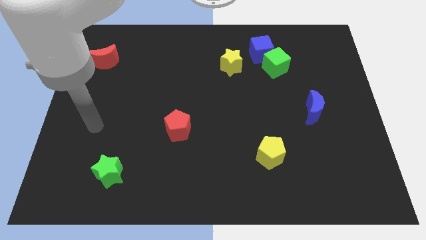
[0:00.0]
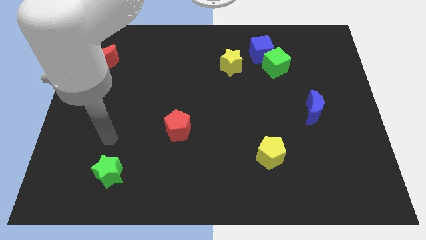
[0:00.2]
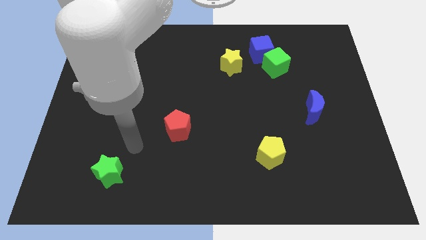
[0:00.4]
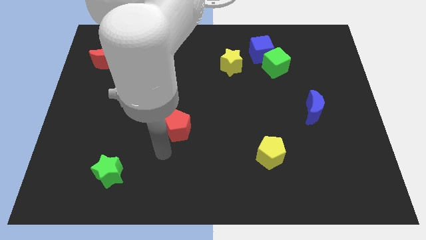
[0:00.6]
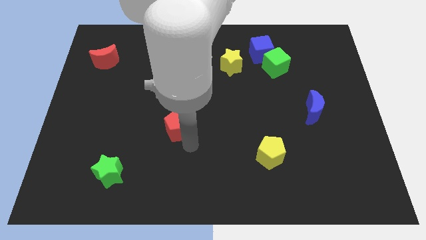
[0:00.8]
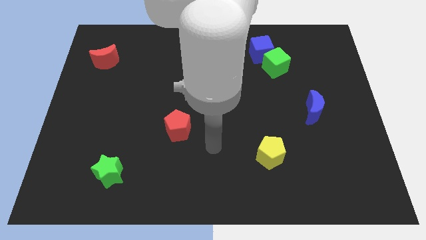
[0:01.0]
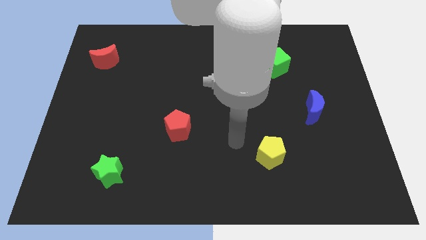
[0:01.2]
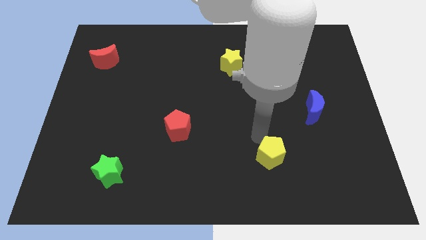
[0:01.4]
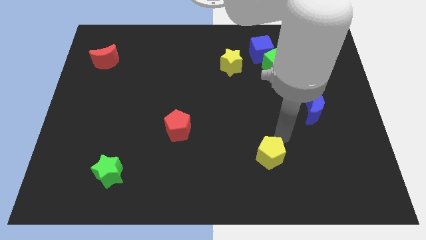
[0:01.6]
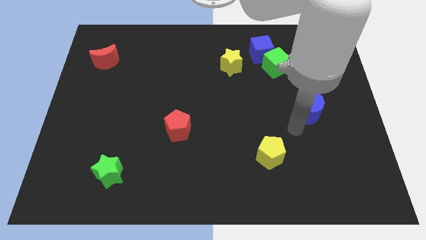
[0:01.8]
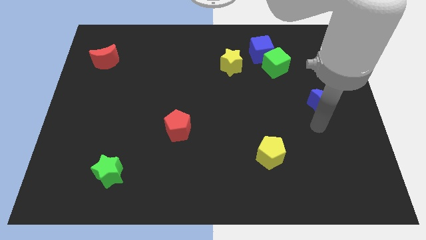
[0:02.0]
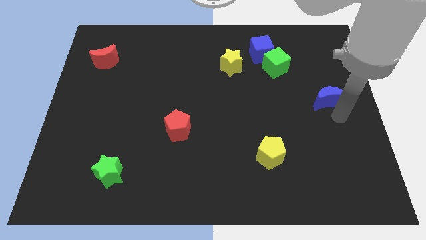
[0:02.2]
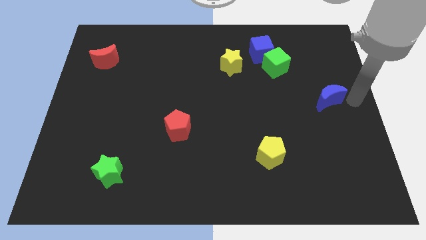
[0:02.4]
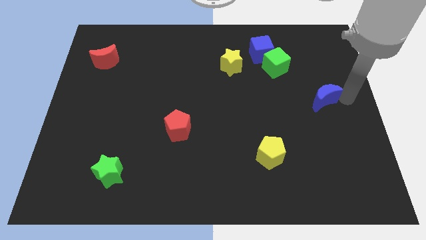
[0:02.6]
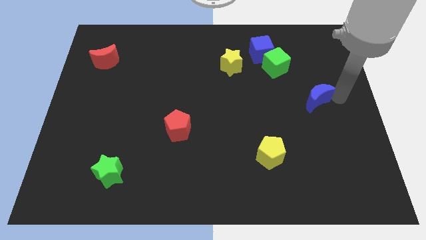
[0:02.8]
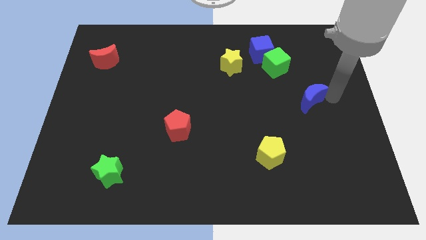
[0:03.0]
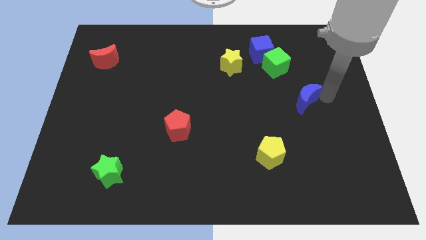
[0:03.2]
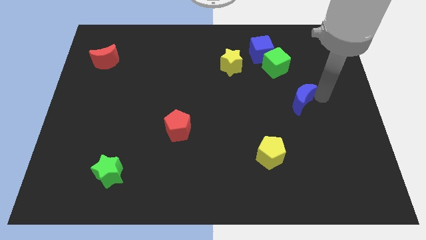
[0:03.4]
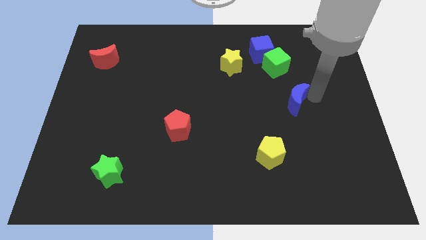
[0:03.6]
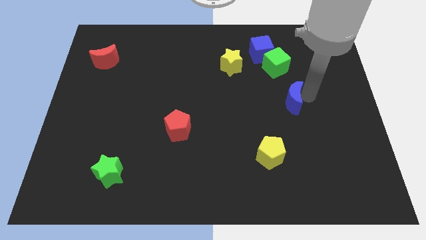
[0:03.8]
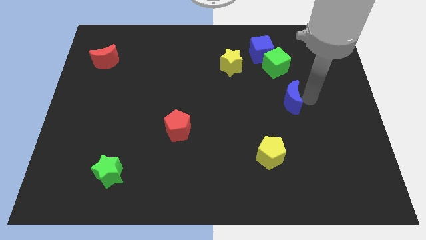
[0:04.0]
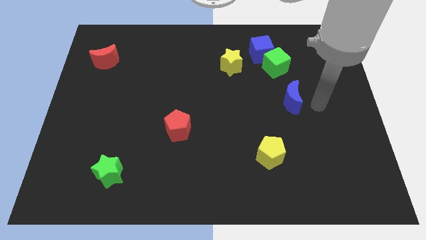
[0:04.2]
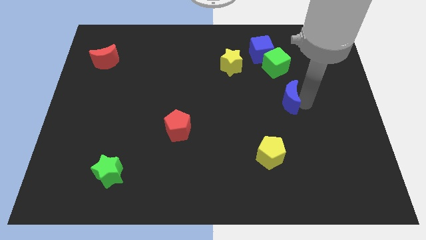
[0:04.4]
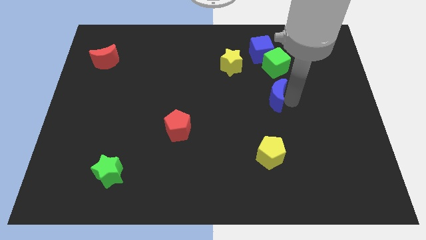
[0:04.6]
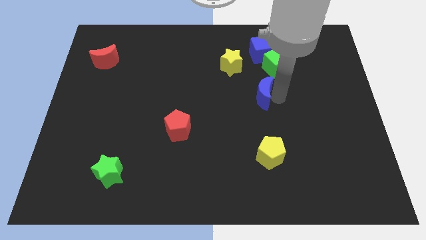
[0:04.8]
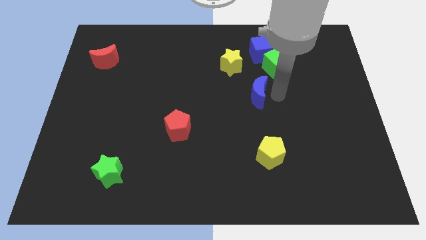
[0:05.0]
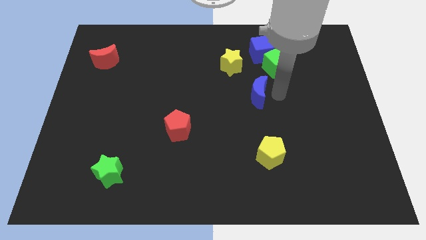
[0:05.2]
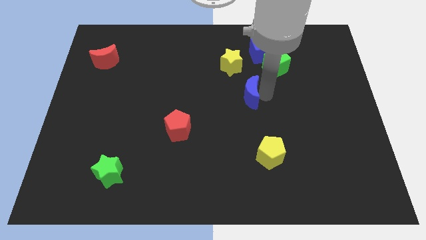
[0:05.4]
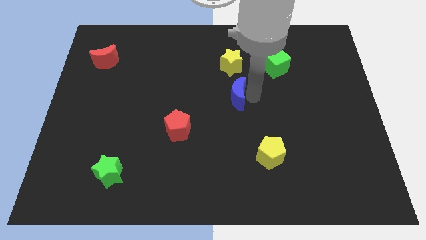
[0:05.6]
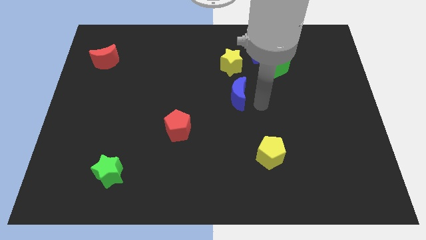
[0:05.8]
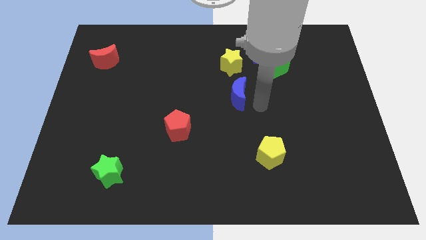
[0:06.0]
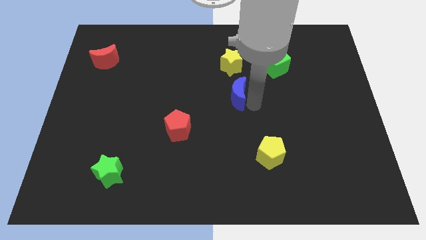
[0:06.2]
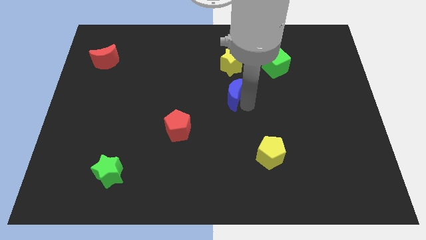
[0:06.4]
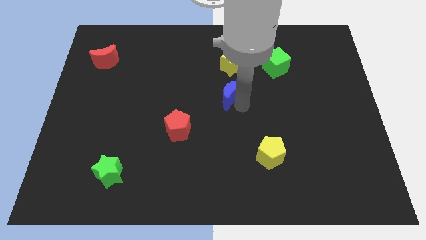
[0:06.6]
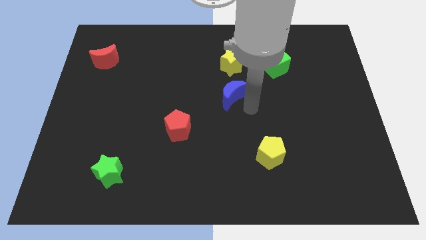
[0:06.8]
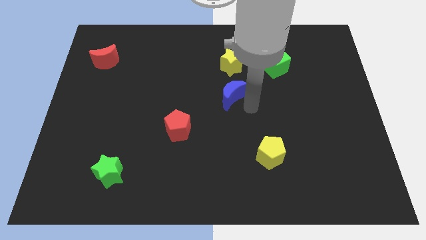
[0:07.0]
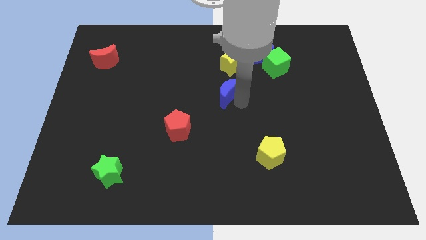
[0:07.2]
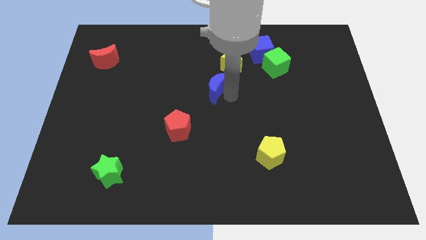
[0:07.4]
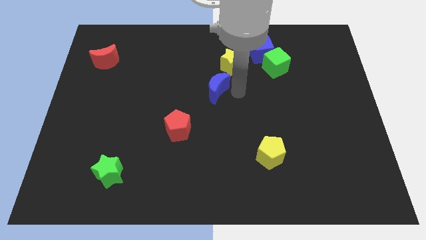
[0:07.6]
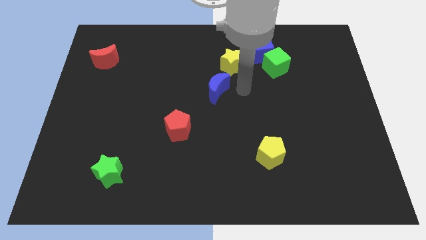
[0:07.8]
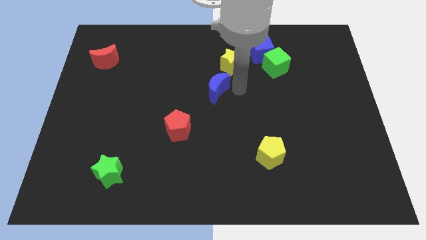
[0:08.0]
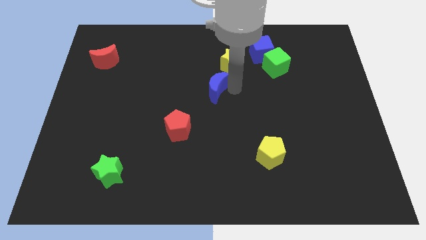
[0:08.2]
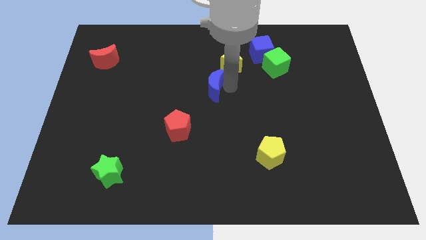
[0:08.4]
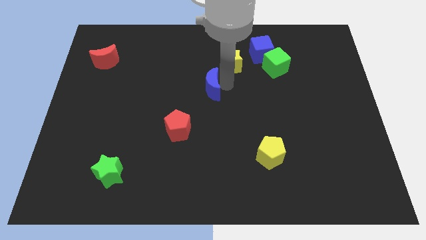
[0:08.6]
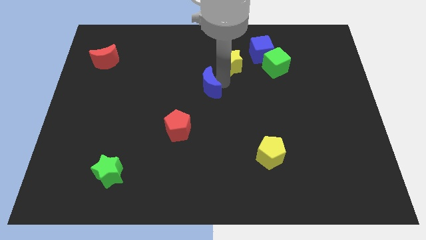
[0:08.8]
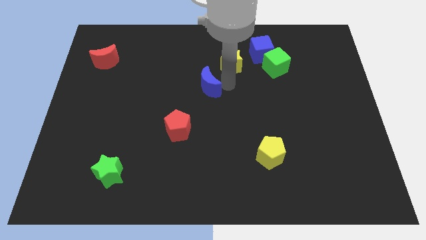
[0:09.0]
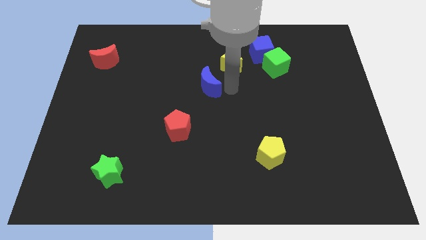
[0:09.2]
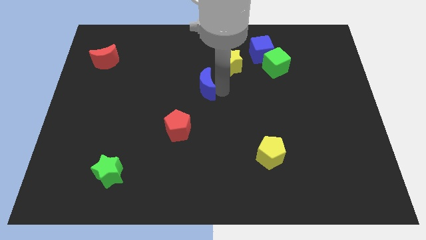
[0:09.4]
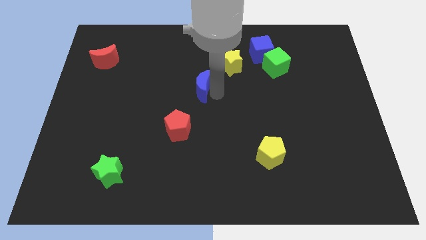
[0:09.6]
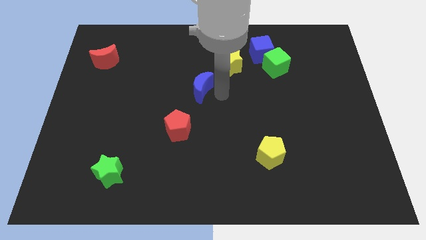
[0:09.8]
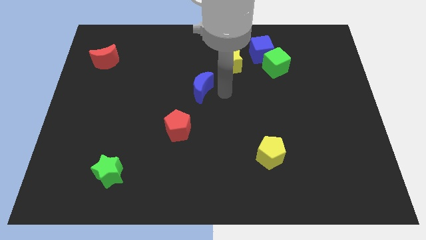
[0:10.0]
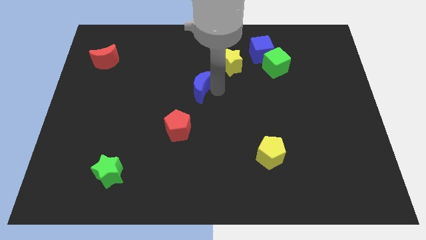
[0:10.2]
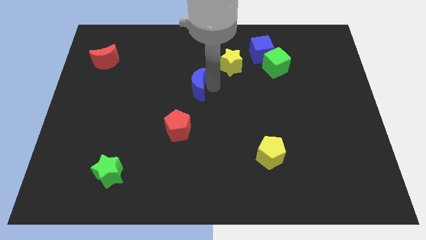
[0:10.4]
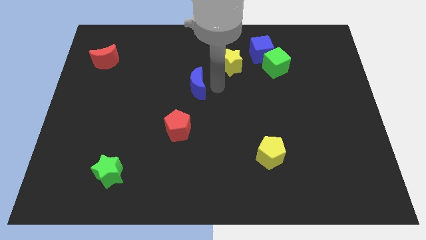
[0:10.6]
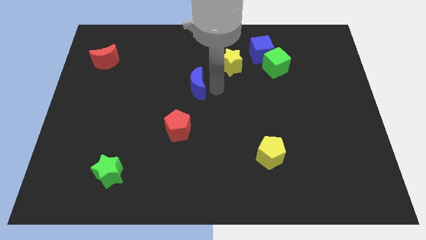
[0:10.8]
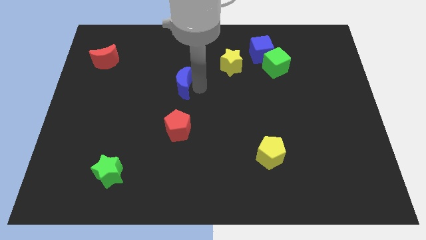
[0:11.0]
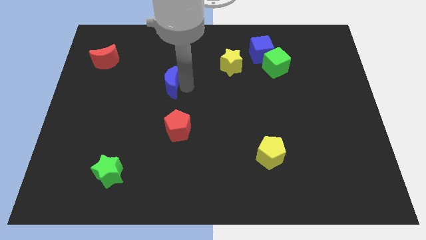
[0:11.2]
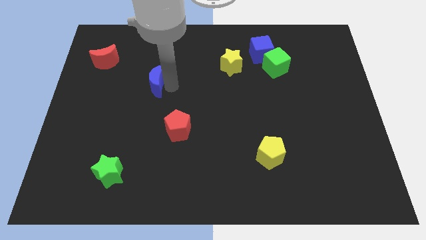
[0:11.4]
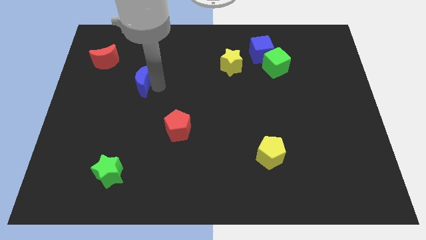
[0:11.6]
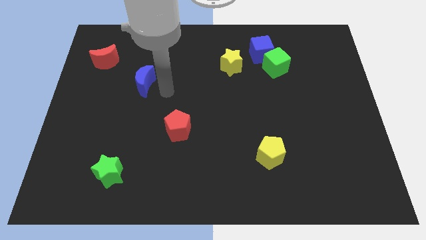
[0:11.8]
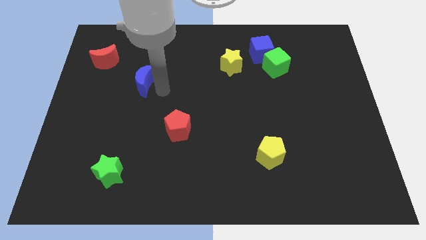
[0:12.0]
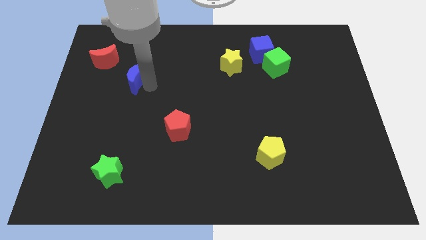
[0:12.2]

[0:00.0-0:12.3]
push the blue moon diagonally down and to the right of the red moon

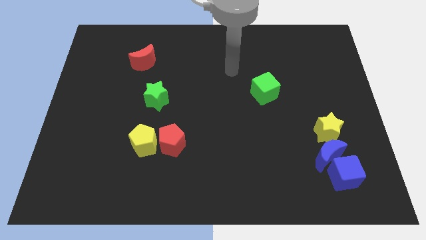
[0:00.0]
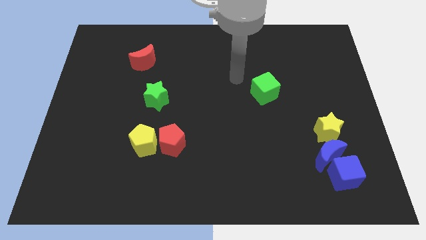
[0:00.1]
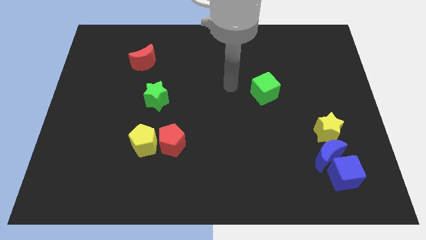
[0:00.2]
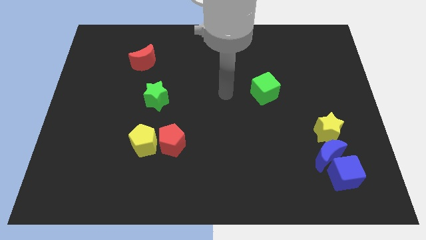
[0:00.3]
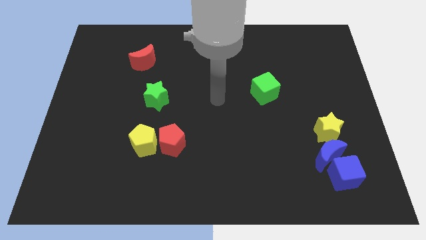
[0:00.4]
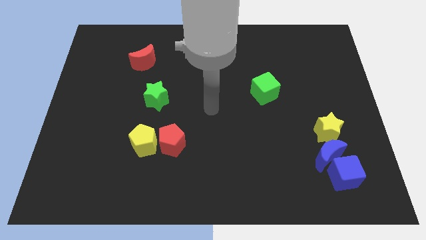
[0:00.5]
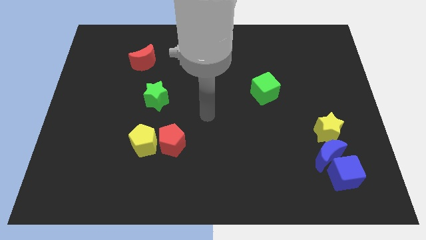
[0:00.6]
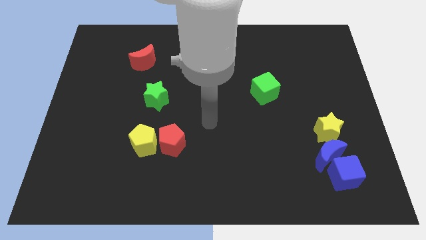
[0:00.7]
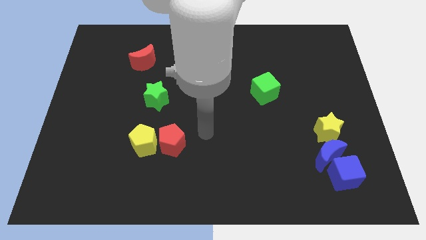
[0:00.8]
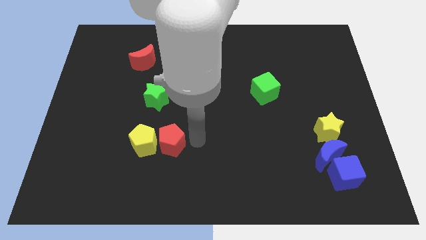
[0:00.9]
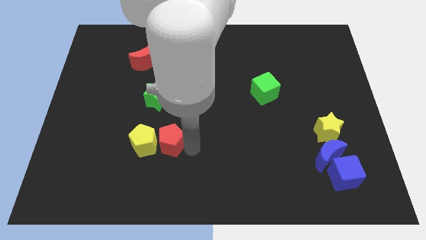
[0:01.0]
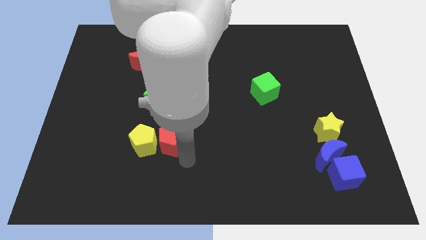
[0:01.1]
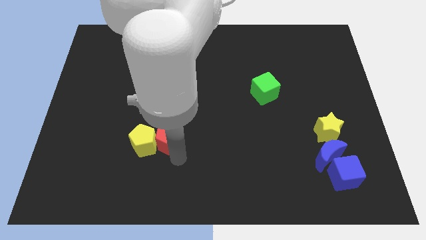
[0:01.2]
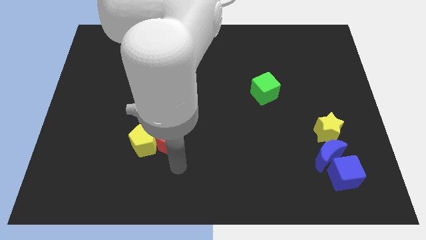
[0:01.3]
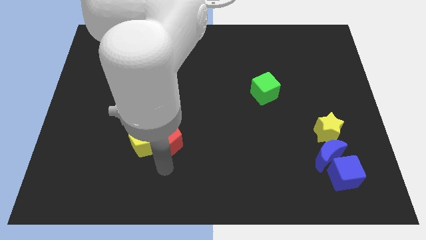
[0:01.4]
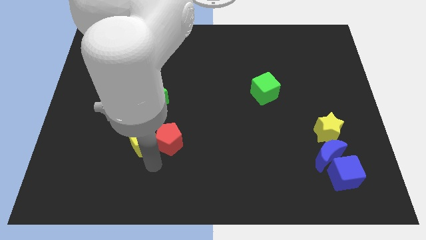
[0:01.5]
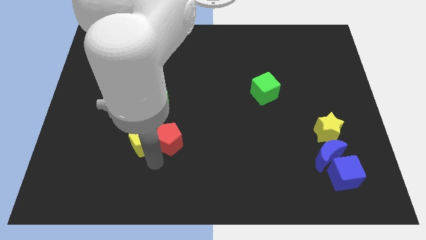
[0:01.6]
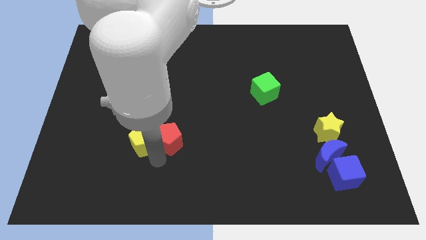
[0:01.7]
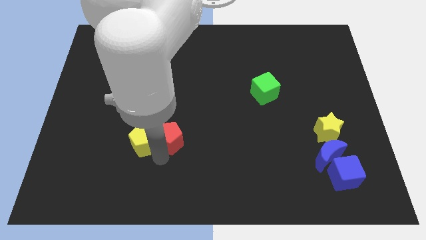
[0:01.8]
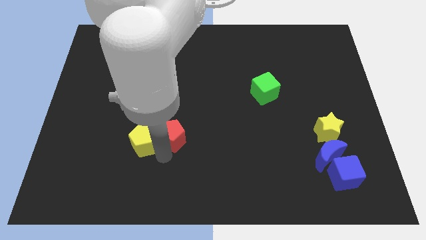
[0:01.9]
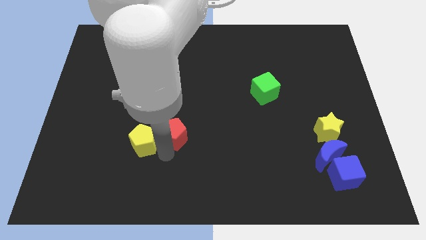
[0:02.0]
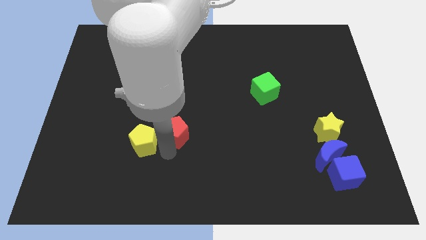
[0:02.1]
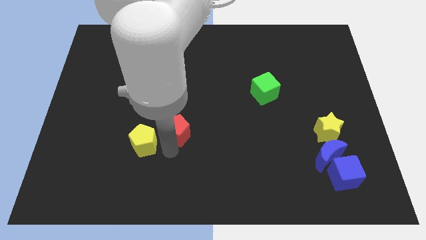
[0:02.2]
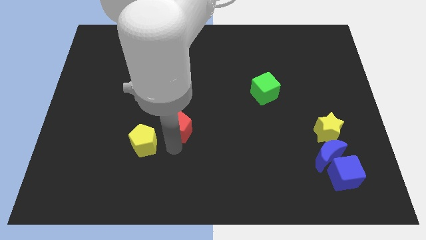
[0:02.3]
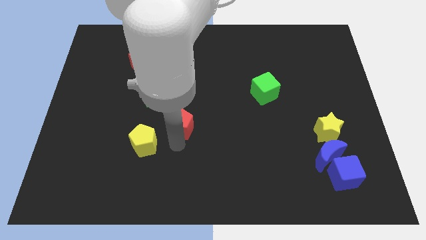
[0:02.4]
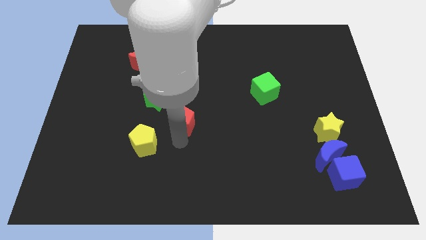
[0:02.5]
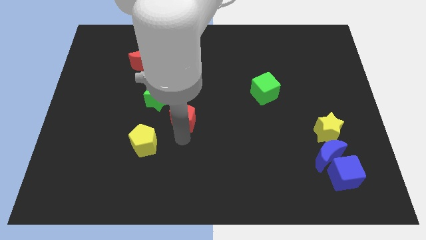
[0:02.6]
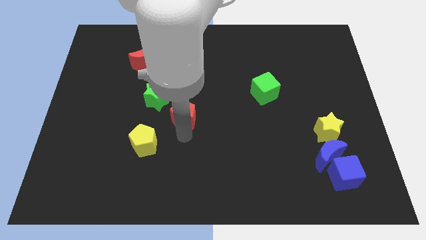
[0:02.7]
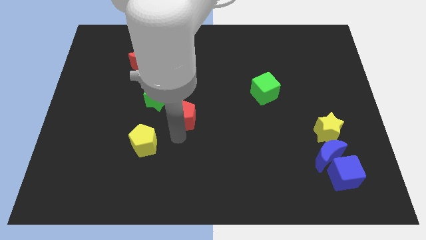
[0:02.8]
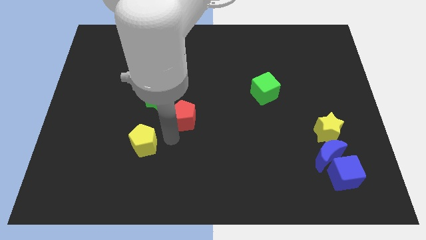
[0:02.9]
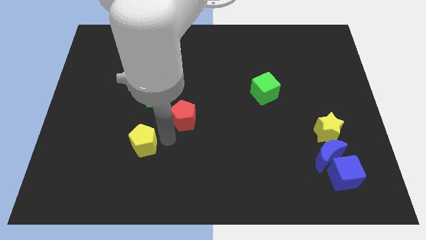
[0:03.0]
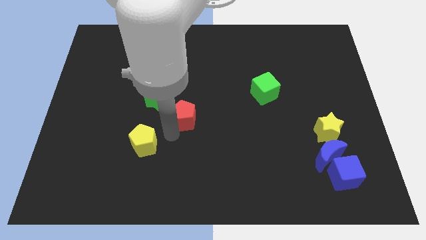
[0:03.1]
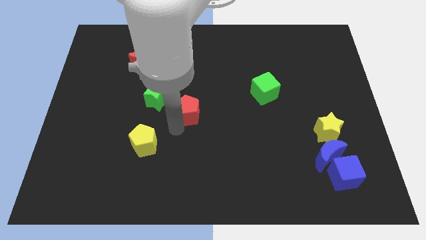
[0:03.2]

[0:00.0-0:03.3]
put the red pentagon right of the green star
